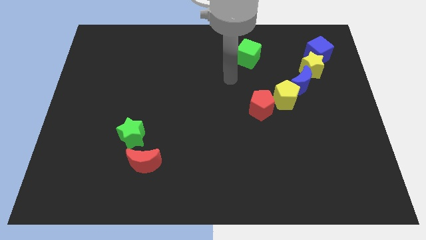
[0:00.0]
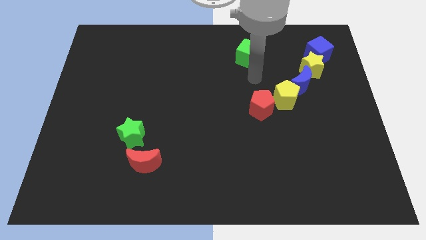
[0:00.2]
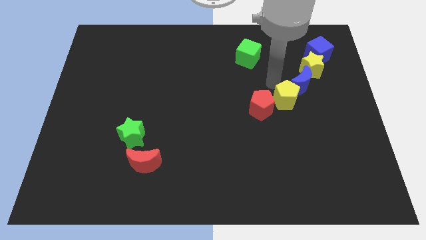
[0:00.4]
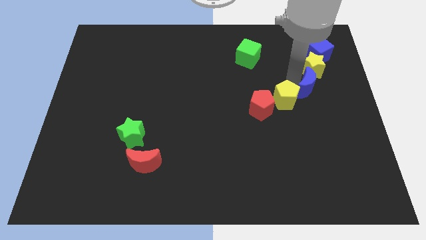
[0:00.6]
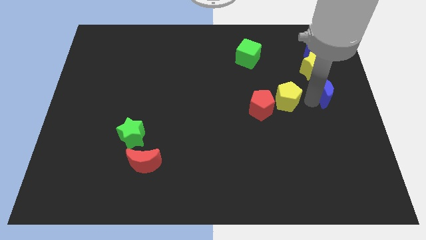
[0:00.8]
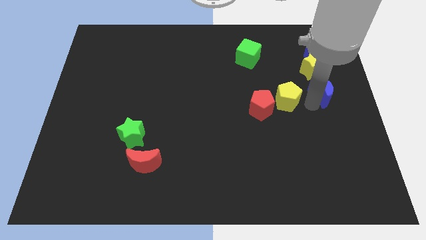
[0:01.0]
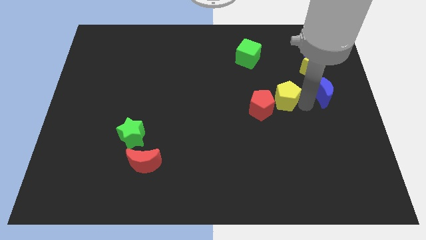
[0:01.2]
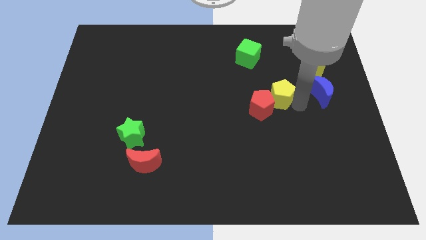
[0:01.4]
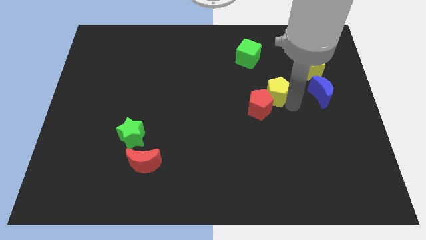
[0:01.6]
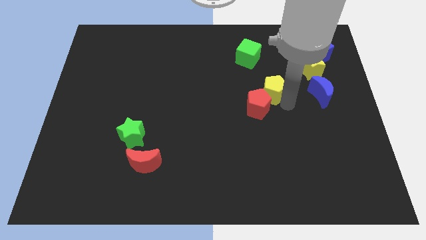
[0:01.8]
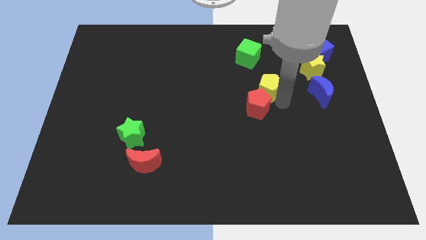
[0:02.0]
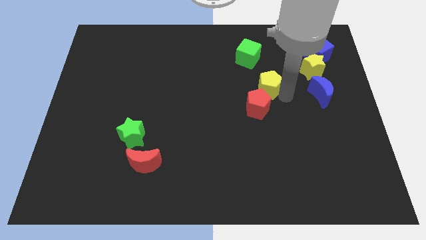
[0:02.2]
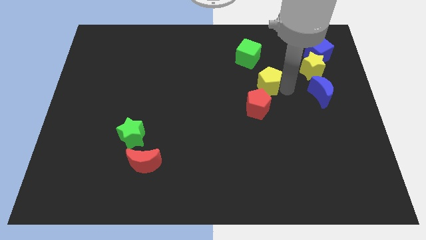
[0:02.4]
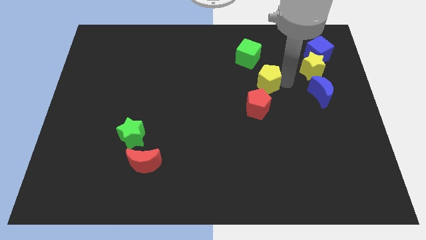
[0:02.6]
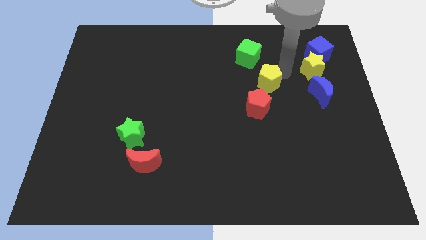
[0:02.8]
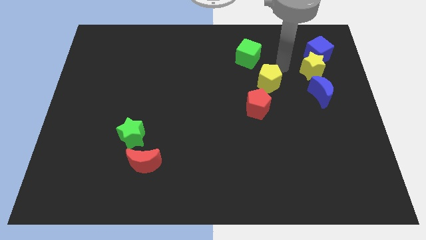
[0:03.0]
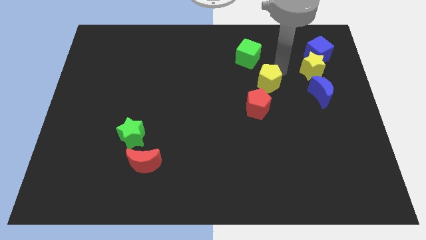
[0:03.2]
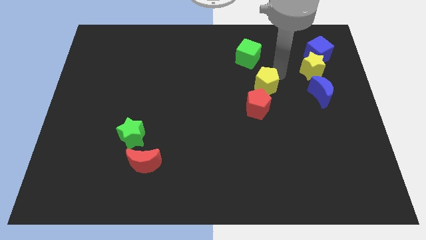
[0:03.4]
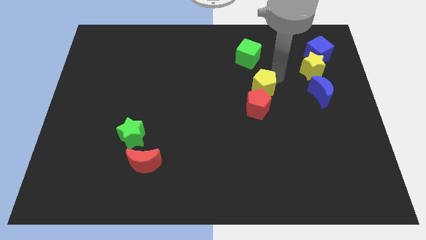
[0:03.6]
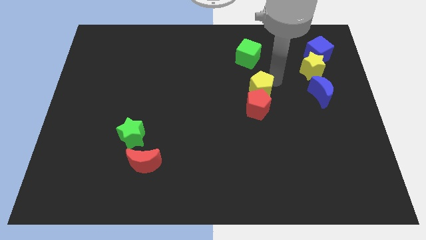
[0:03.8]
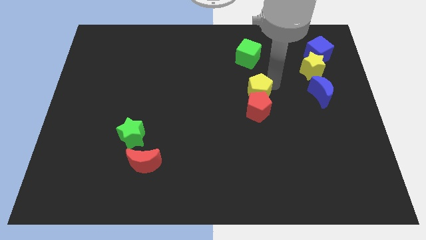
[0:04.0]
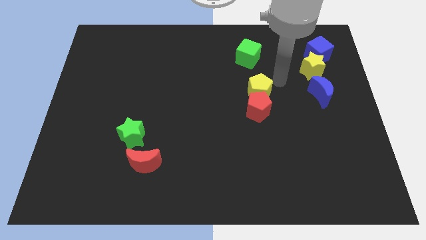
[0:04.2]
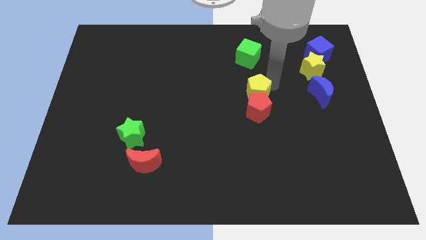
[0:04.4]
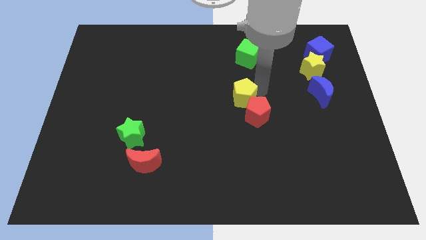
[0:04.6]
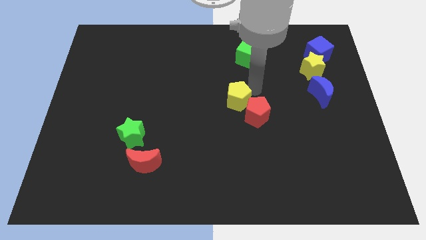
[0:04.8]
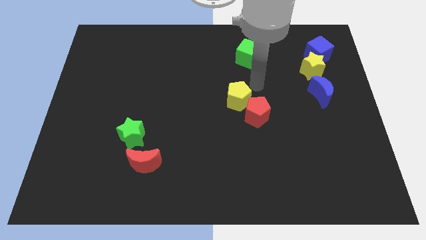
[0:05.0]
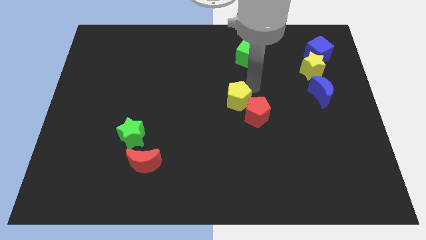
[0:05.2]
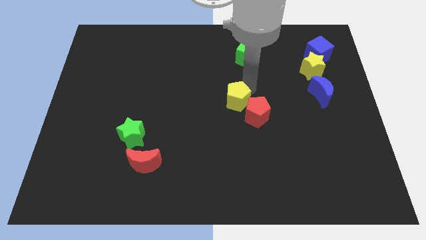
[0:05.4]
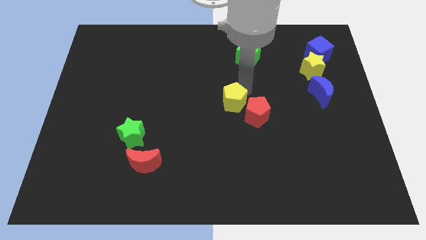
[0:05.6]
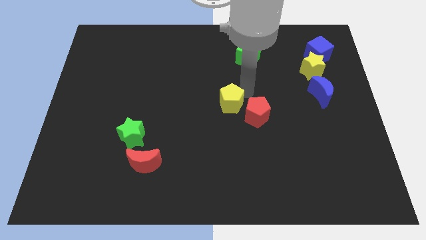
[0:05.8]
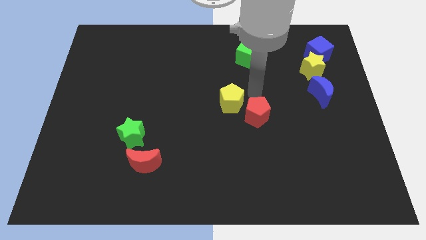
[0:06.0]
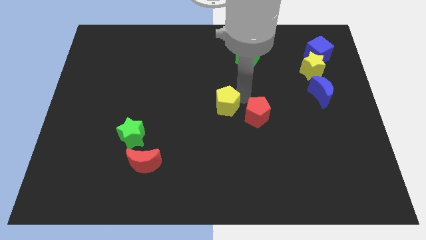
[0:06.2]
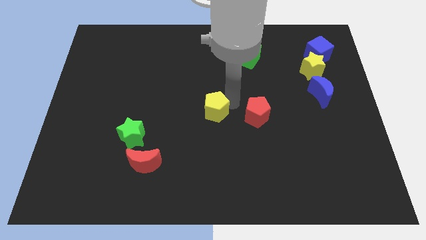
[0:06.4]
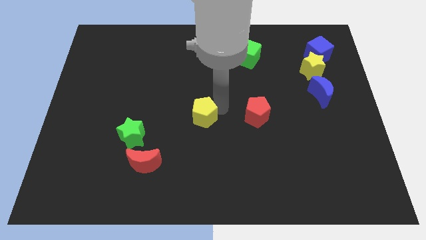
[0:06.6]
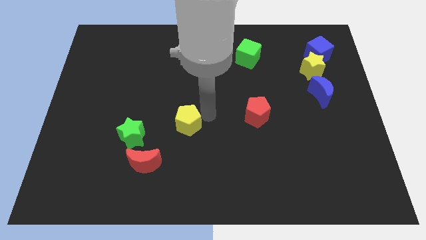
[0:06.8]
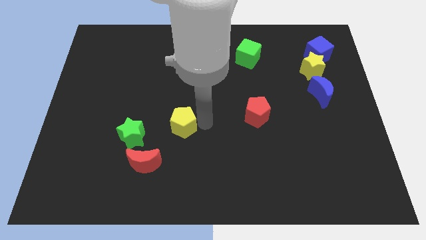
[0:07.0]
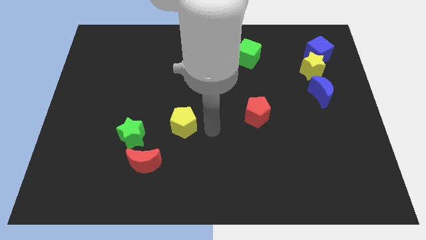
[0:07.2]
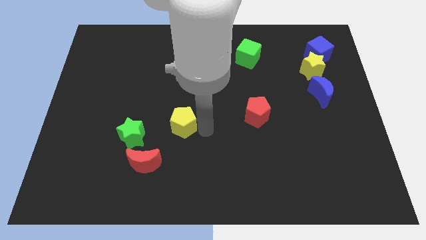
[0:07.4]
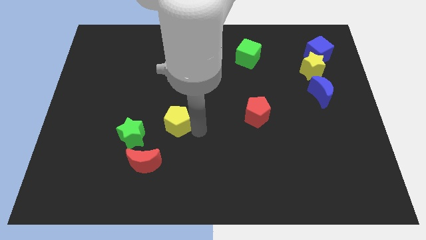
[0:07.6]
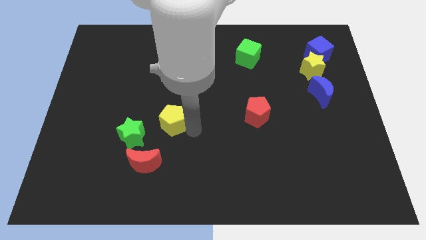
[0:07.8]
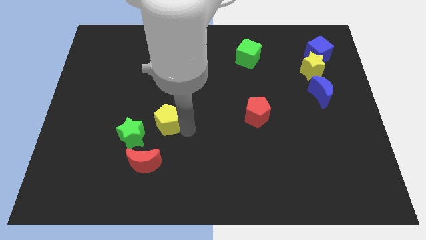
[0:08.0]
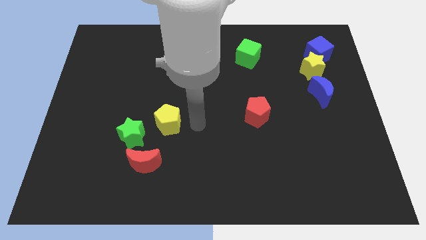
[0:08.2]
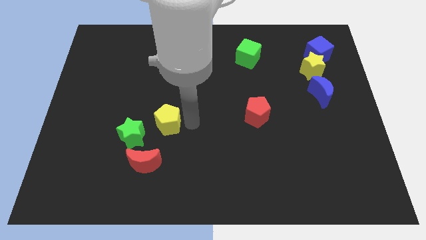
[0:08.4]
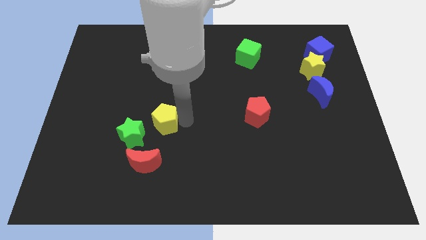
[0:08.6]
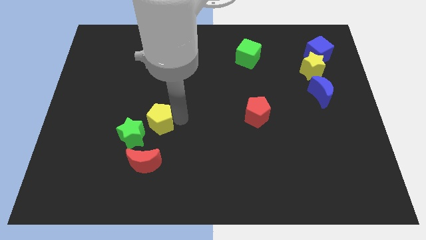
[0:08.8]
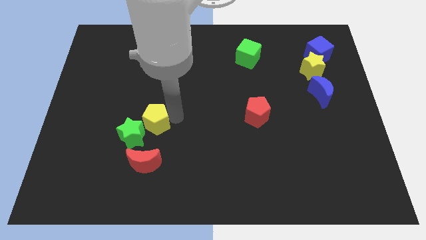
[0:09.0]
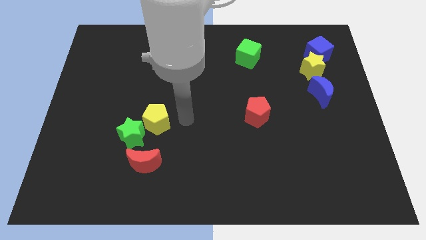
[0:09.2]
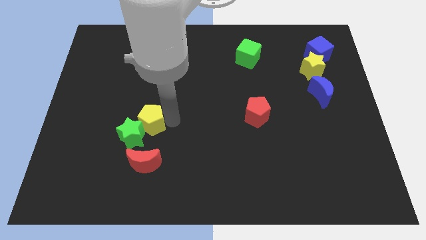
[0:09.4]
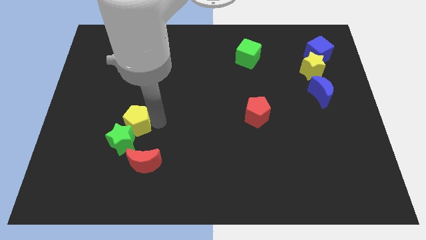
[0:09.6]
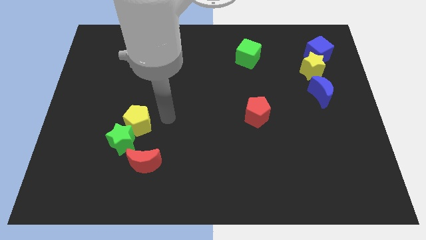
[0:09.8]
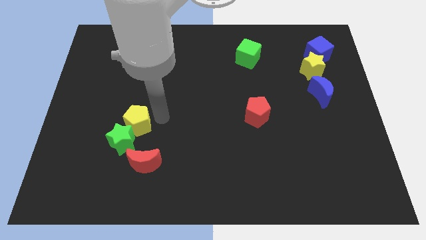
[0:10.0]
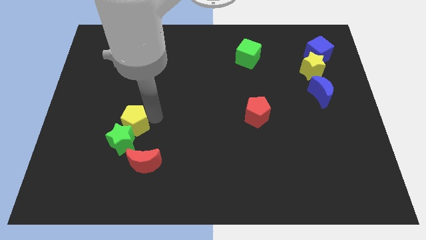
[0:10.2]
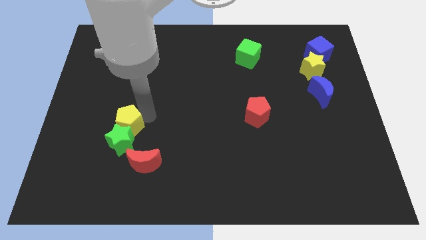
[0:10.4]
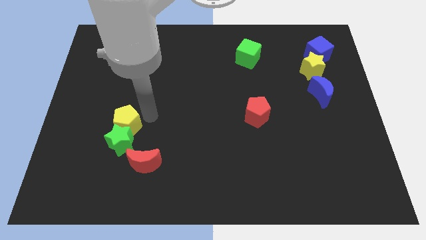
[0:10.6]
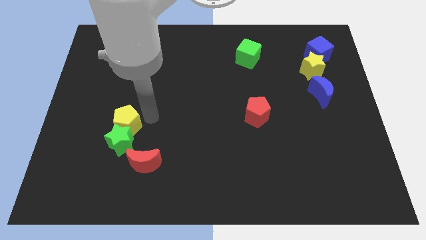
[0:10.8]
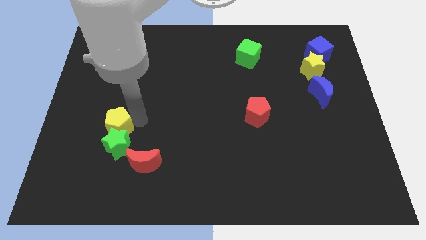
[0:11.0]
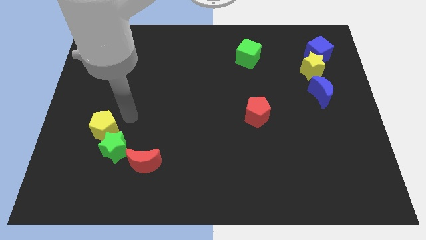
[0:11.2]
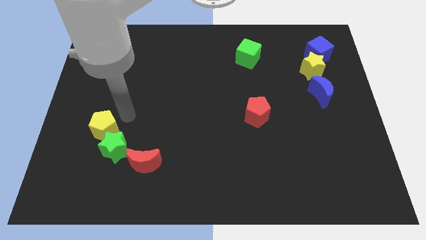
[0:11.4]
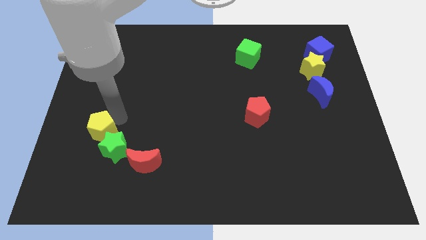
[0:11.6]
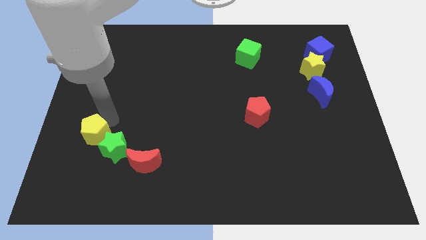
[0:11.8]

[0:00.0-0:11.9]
push the yellow pentagon left of the green star

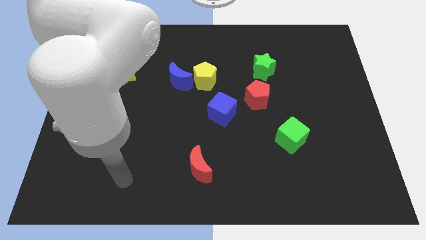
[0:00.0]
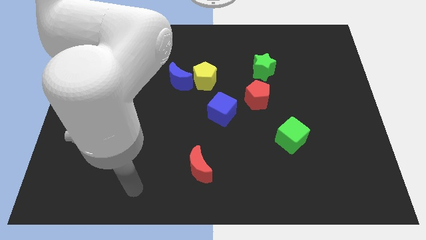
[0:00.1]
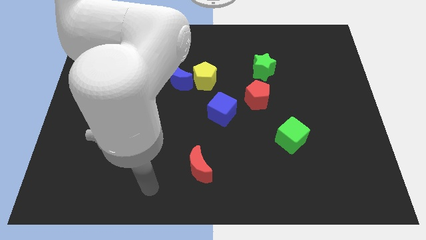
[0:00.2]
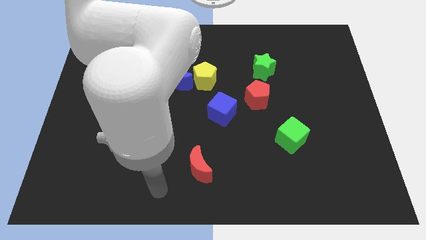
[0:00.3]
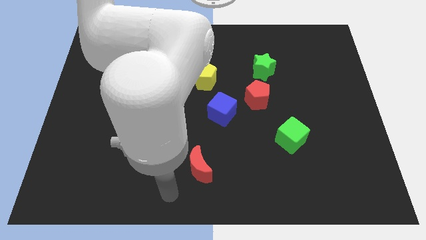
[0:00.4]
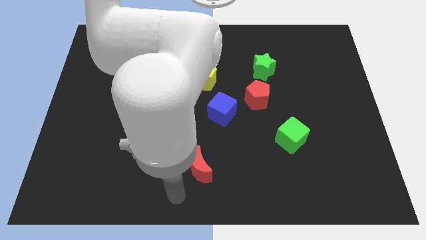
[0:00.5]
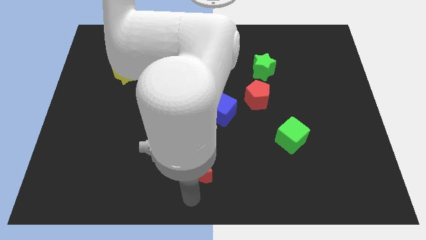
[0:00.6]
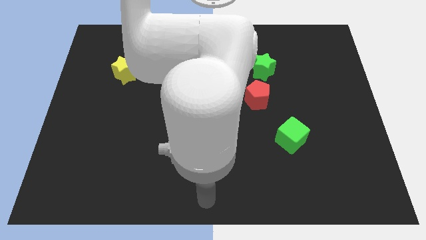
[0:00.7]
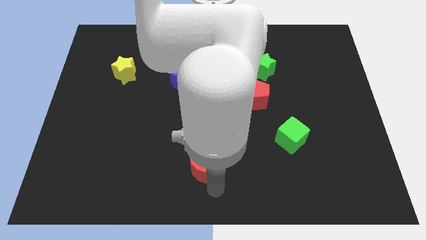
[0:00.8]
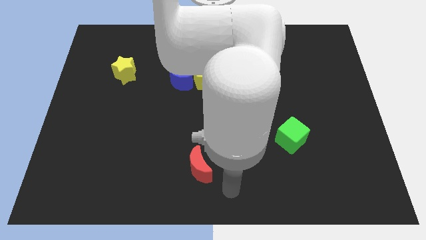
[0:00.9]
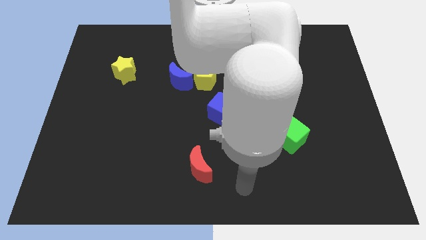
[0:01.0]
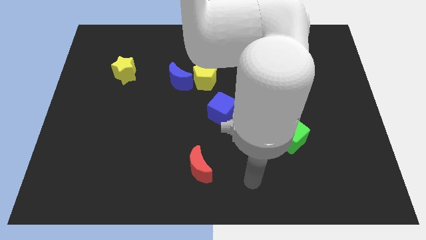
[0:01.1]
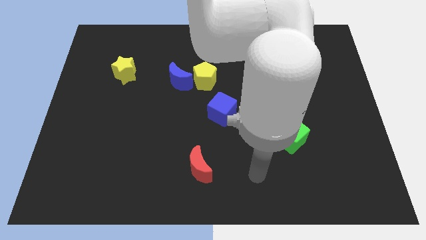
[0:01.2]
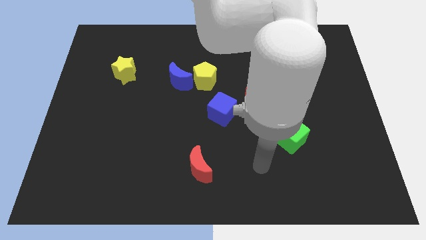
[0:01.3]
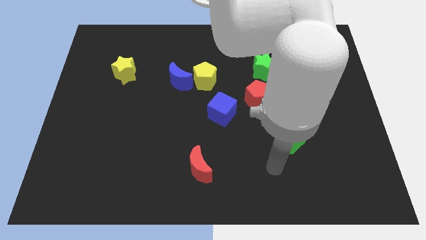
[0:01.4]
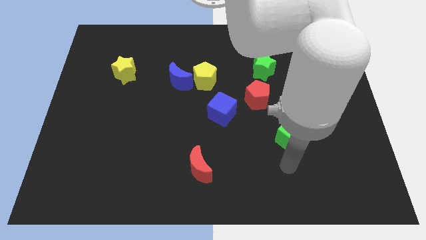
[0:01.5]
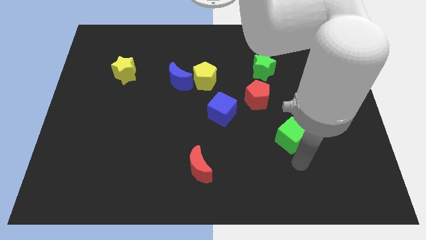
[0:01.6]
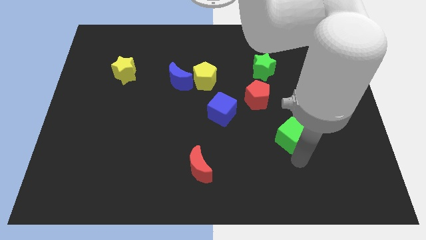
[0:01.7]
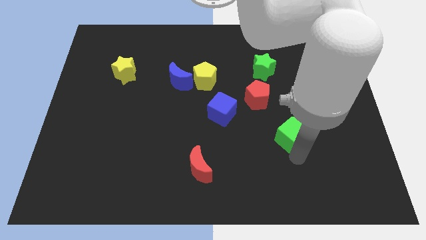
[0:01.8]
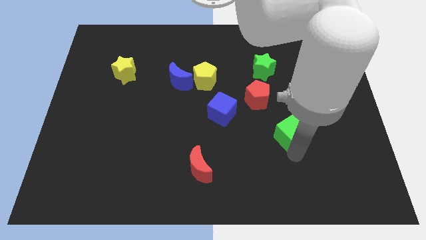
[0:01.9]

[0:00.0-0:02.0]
put the green cube to the bottom right side of the red pentagon
